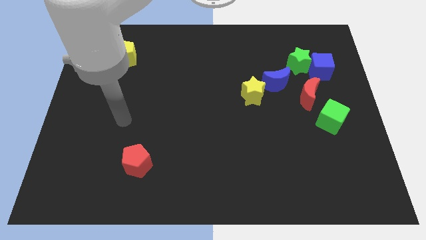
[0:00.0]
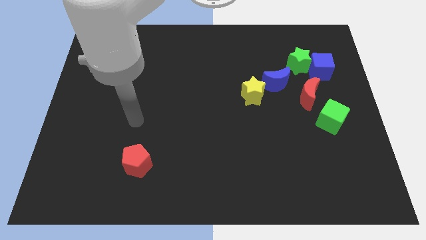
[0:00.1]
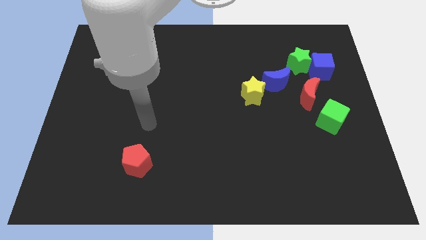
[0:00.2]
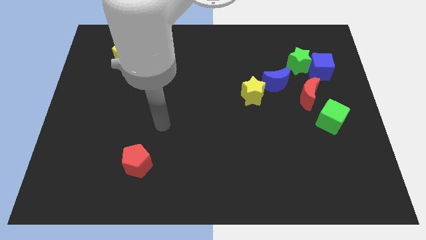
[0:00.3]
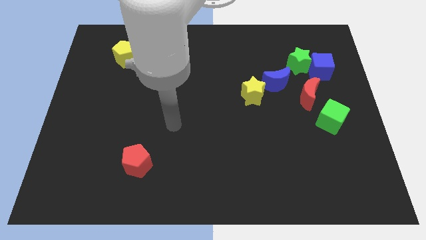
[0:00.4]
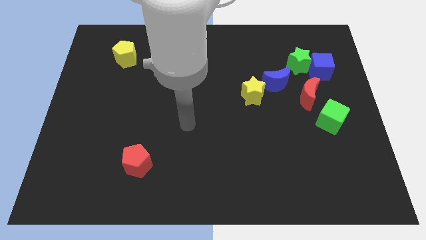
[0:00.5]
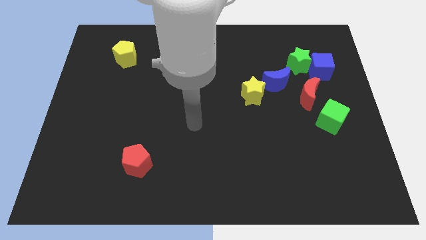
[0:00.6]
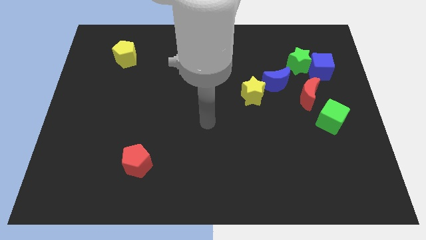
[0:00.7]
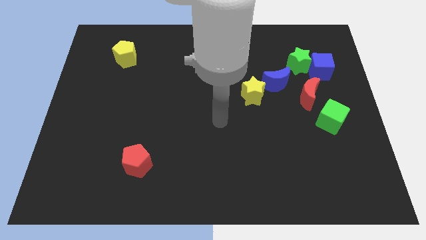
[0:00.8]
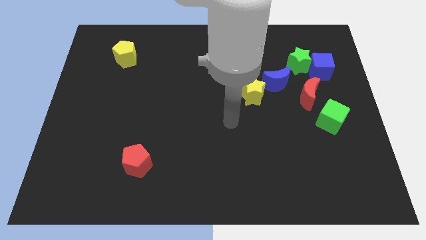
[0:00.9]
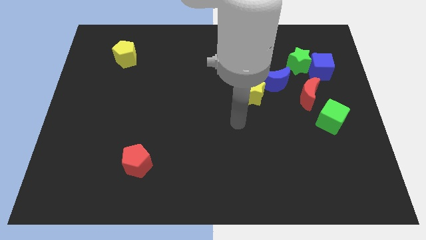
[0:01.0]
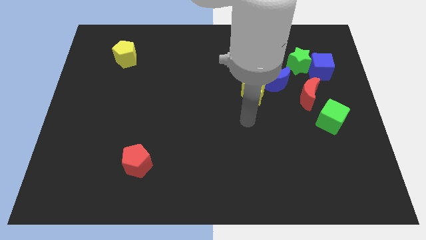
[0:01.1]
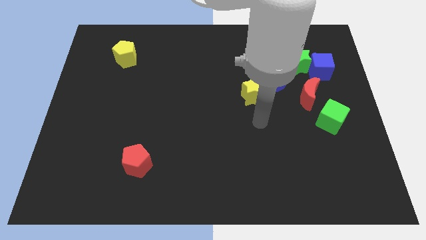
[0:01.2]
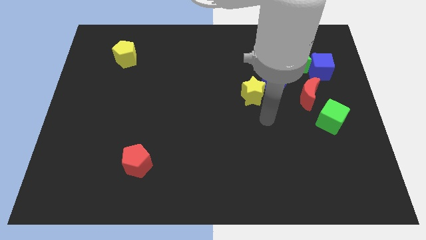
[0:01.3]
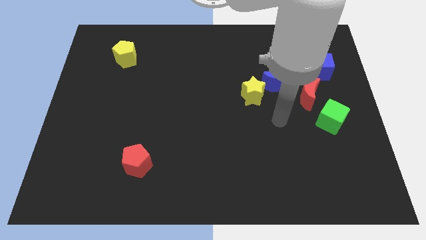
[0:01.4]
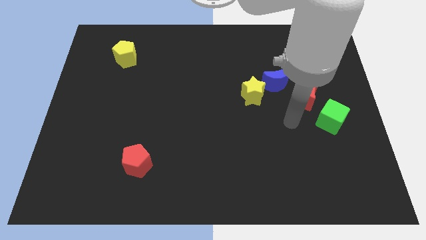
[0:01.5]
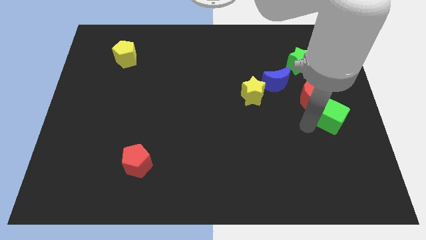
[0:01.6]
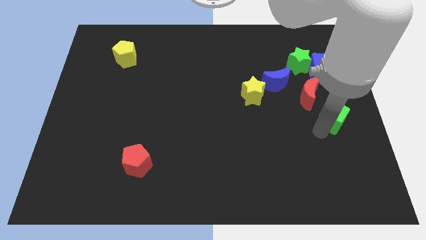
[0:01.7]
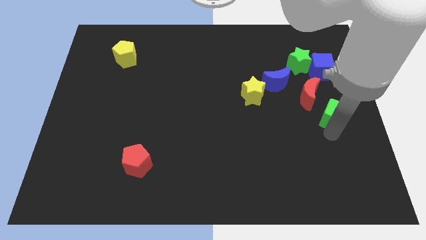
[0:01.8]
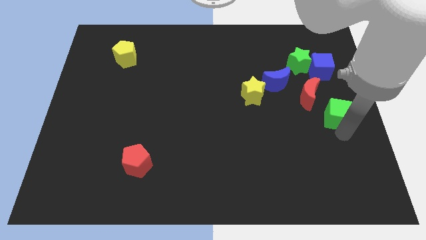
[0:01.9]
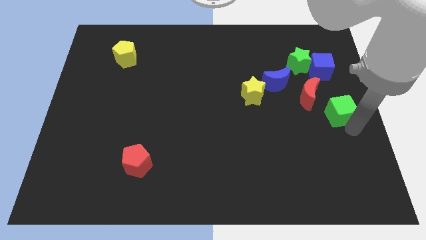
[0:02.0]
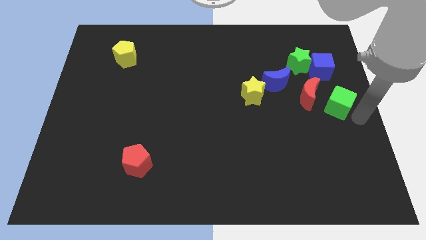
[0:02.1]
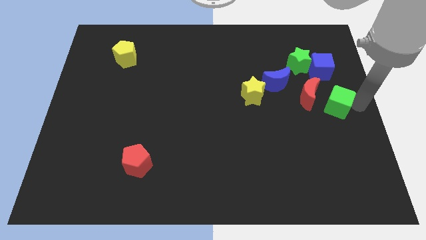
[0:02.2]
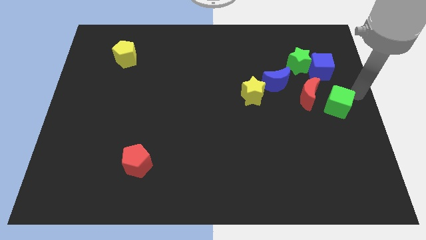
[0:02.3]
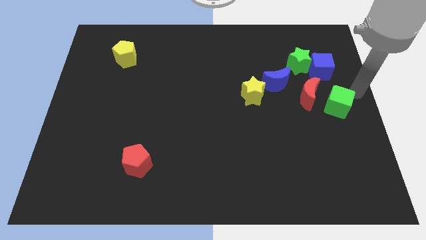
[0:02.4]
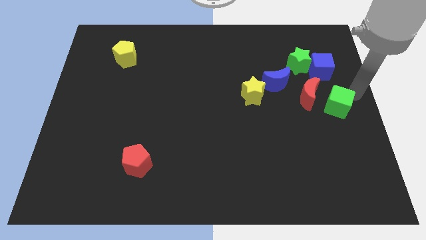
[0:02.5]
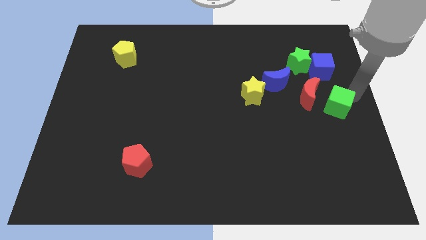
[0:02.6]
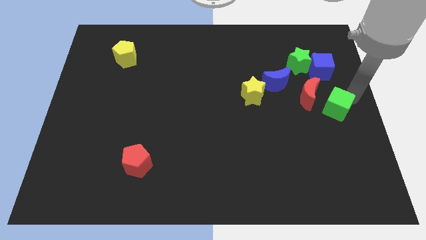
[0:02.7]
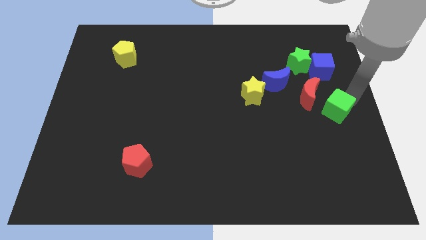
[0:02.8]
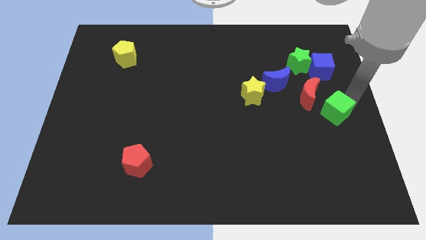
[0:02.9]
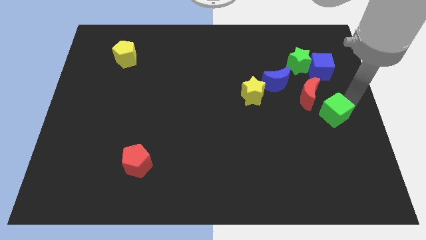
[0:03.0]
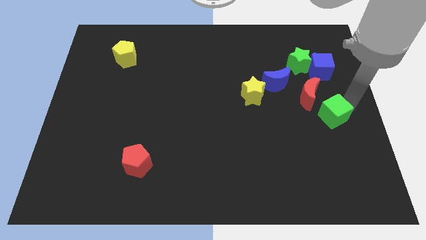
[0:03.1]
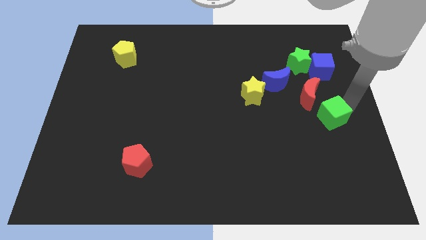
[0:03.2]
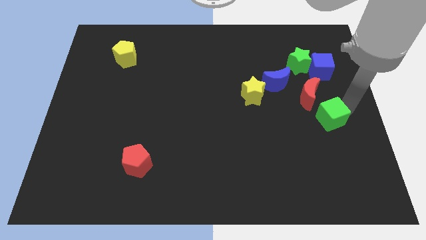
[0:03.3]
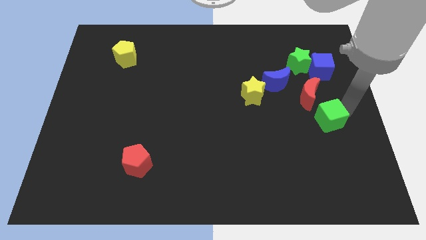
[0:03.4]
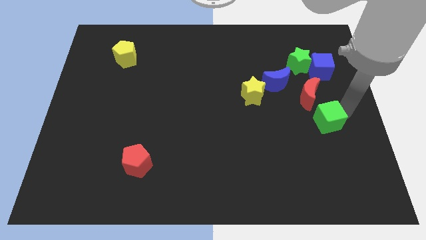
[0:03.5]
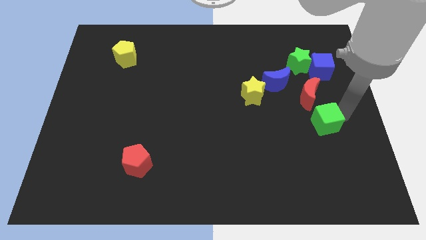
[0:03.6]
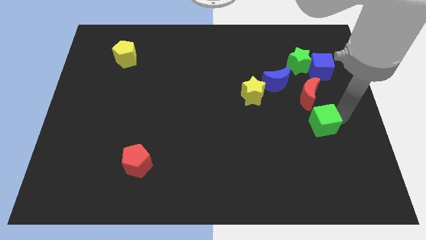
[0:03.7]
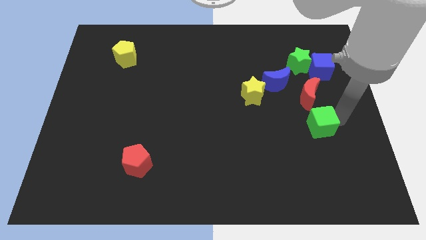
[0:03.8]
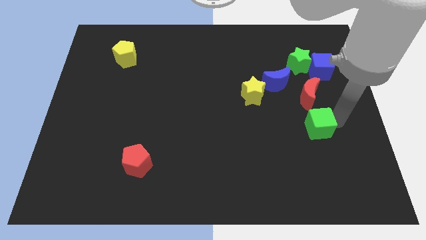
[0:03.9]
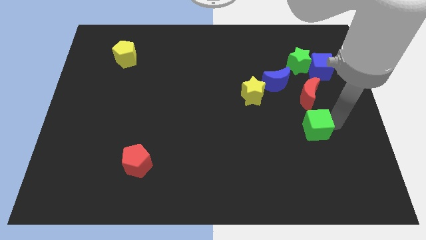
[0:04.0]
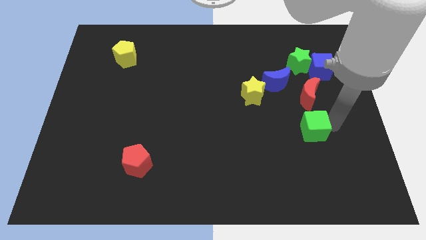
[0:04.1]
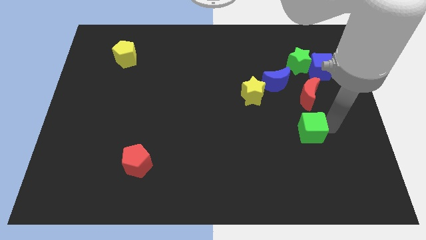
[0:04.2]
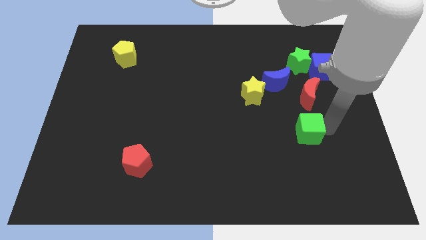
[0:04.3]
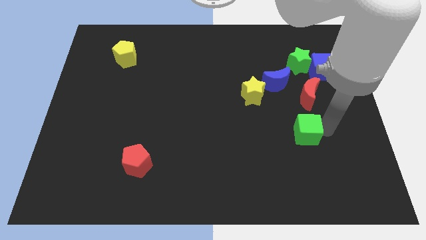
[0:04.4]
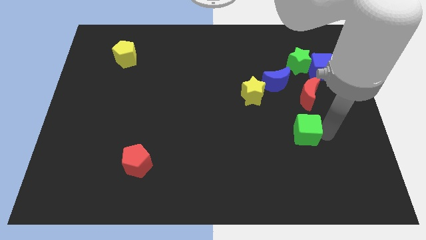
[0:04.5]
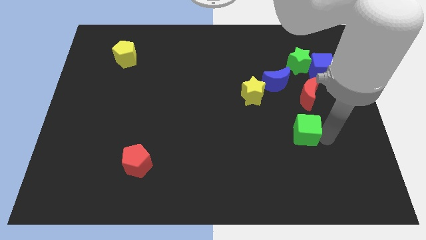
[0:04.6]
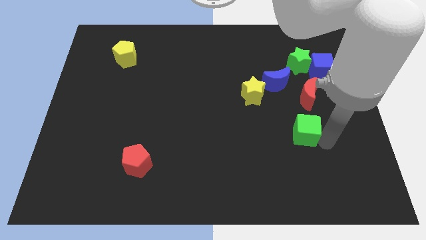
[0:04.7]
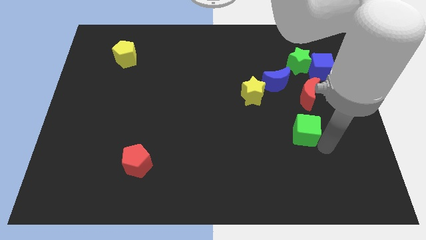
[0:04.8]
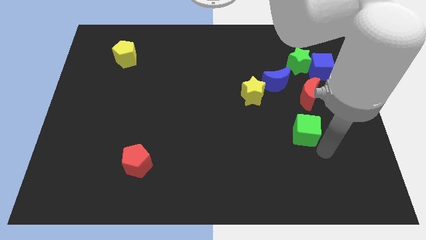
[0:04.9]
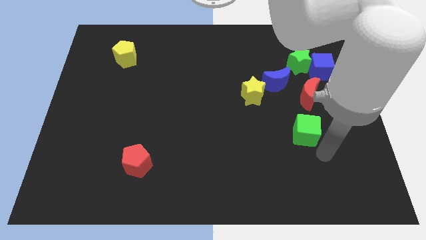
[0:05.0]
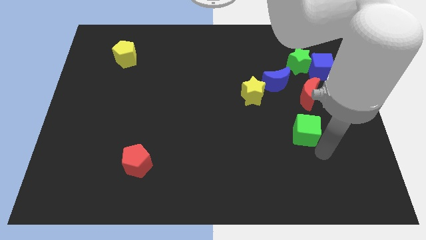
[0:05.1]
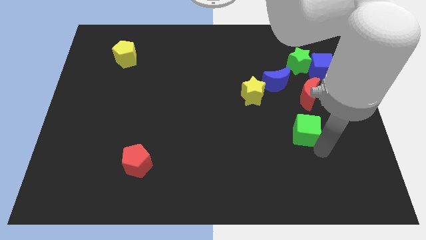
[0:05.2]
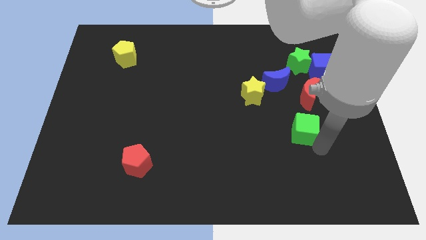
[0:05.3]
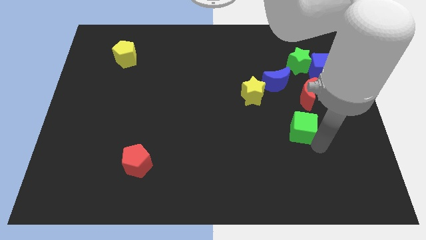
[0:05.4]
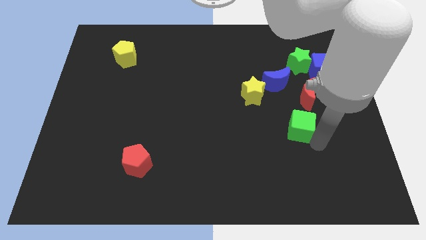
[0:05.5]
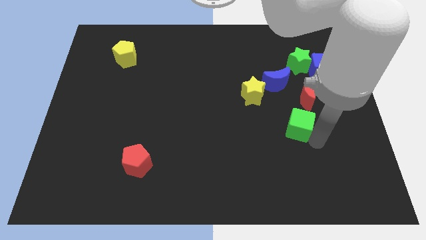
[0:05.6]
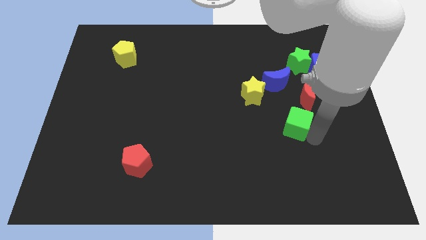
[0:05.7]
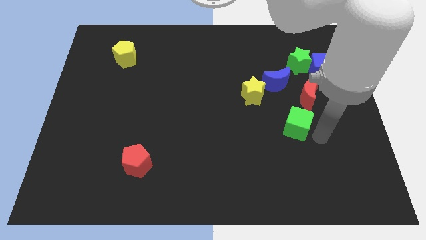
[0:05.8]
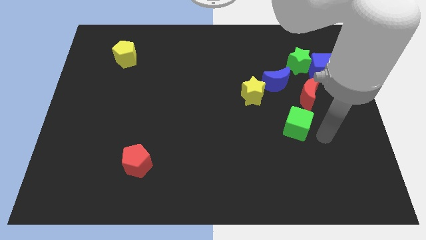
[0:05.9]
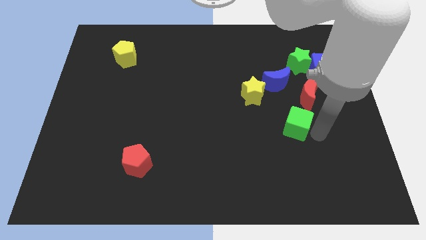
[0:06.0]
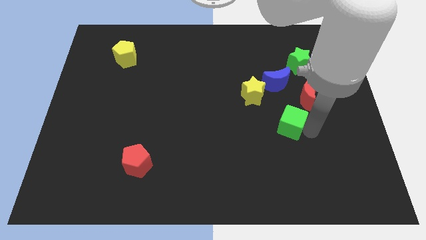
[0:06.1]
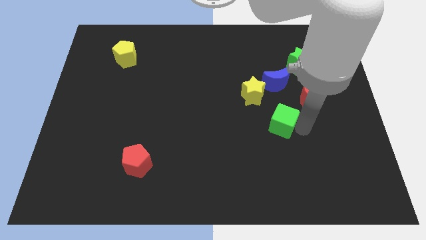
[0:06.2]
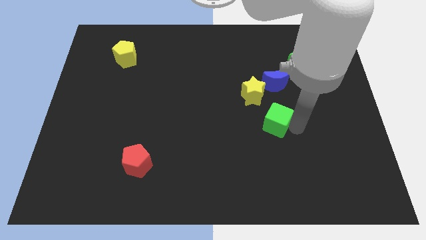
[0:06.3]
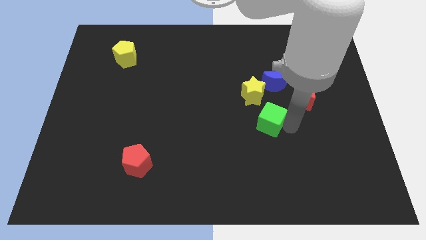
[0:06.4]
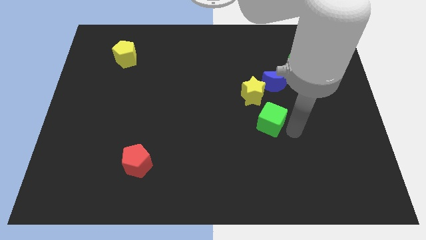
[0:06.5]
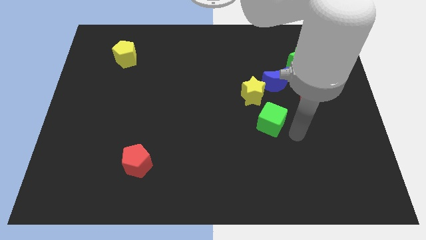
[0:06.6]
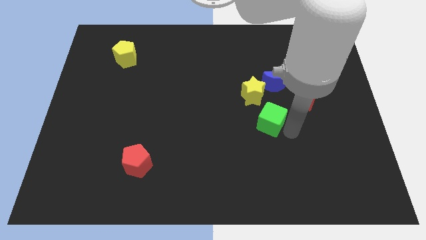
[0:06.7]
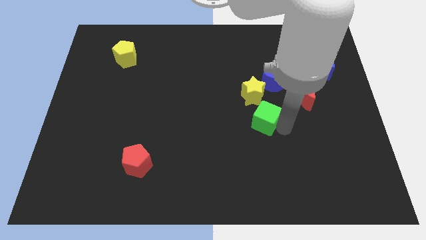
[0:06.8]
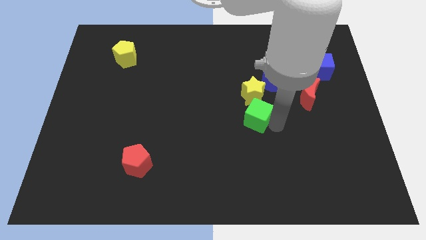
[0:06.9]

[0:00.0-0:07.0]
slide the green cube to the center of the board

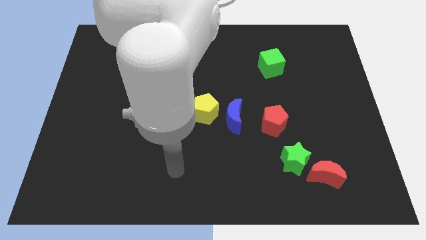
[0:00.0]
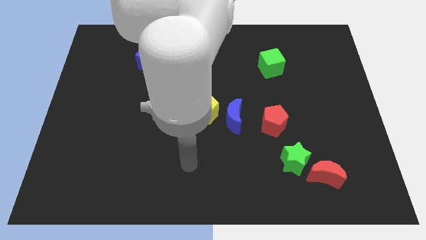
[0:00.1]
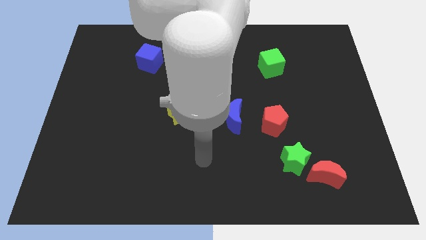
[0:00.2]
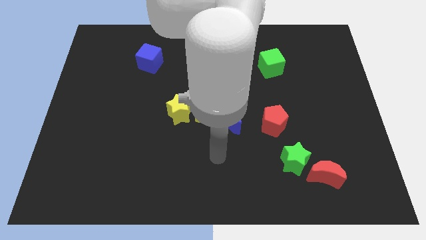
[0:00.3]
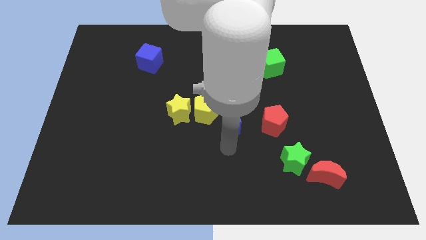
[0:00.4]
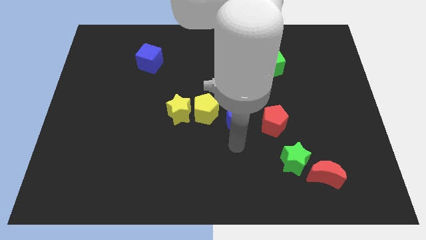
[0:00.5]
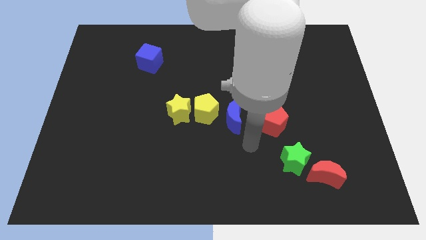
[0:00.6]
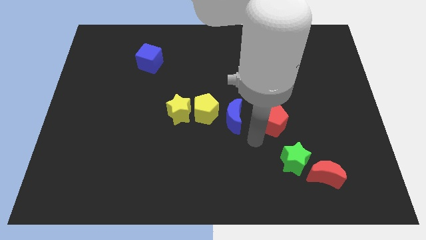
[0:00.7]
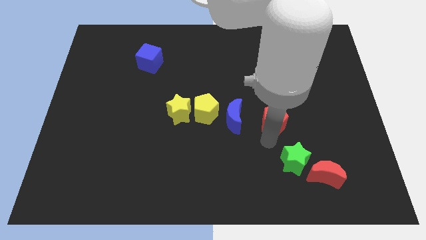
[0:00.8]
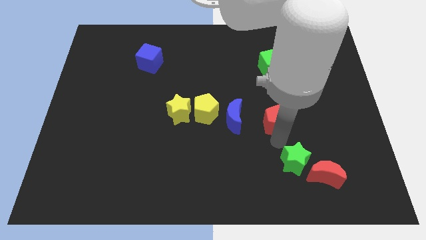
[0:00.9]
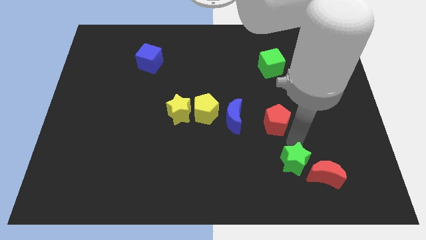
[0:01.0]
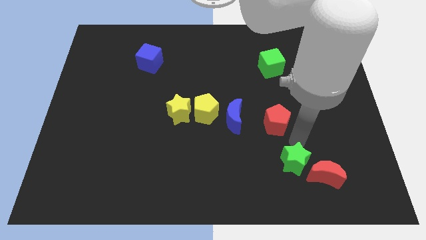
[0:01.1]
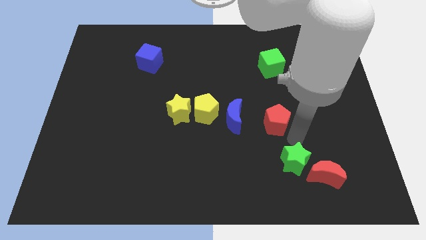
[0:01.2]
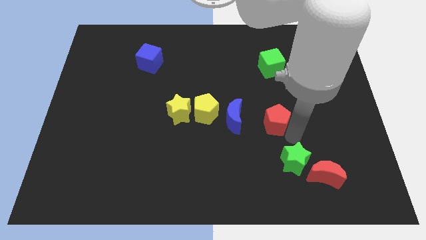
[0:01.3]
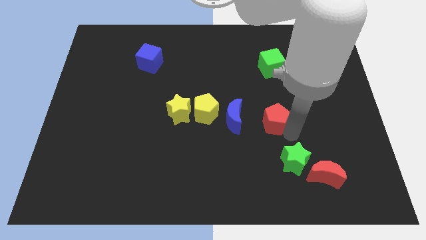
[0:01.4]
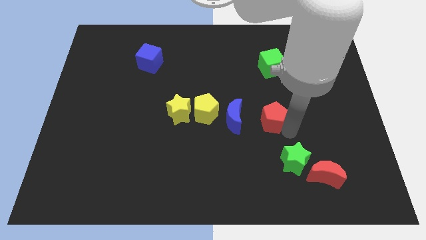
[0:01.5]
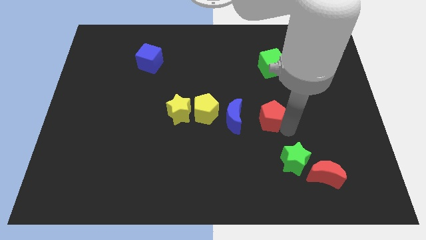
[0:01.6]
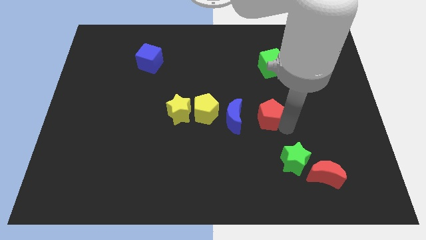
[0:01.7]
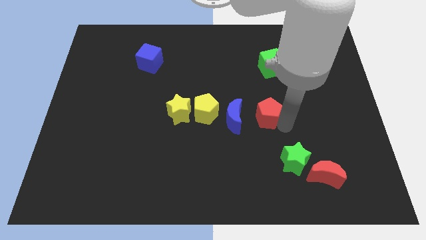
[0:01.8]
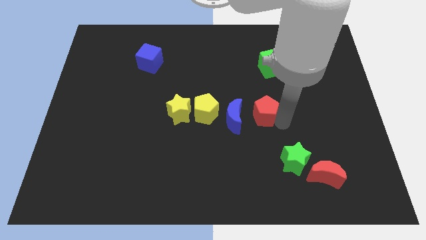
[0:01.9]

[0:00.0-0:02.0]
move the red pentagon to the center of the board
